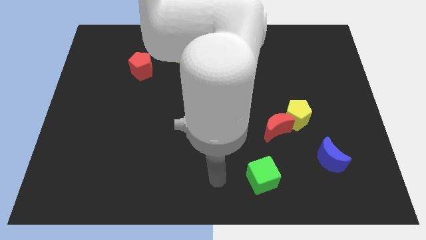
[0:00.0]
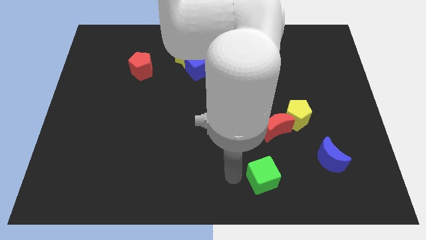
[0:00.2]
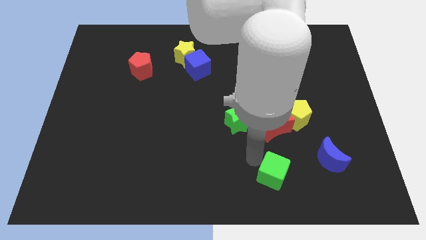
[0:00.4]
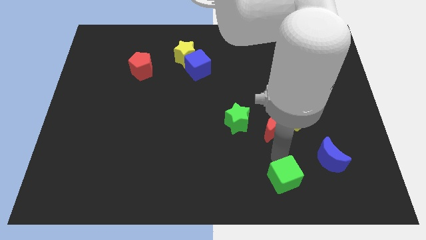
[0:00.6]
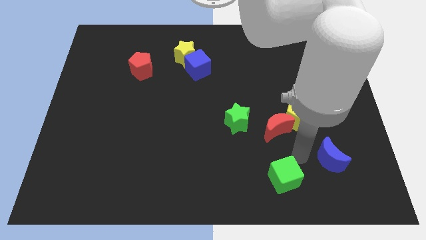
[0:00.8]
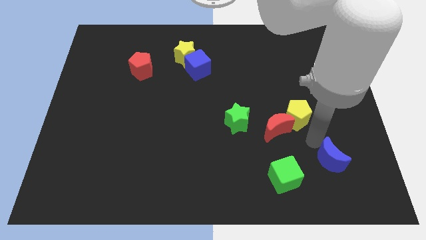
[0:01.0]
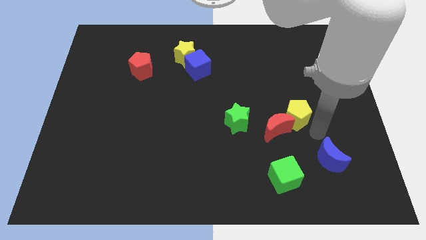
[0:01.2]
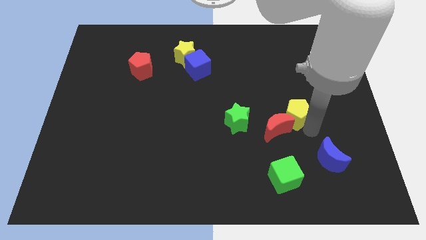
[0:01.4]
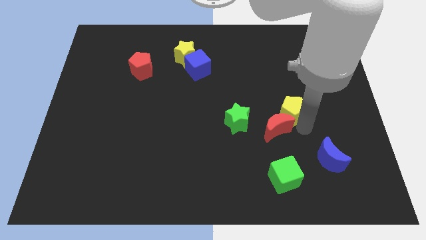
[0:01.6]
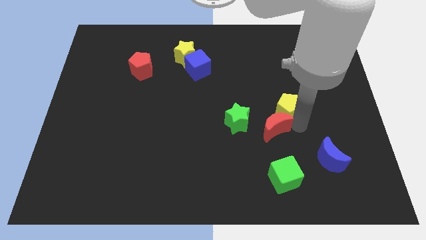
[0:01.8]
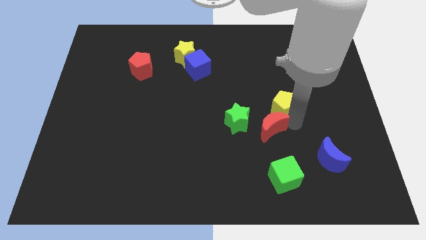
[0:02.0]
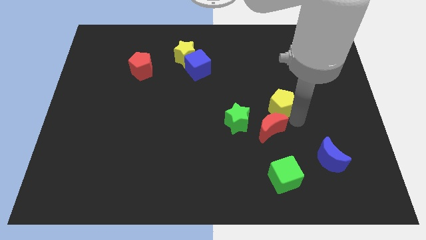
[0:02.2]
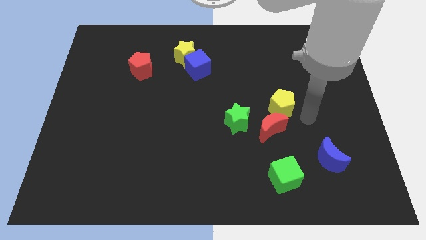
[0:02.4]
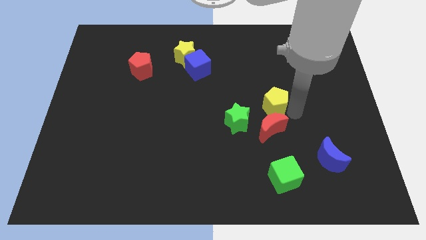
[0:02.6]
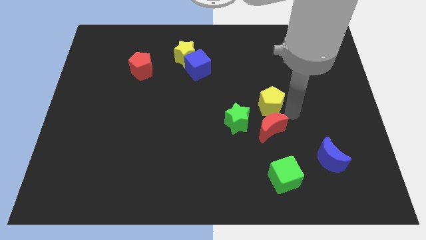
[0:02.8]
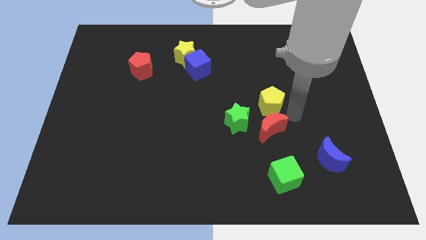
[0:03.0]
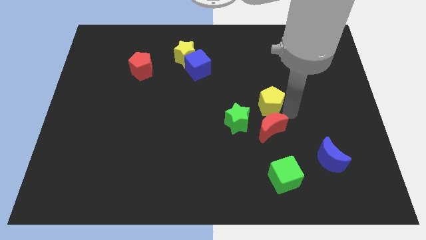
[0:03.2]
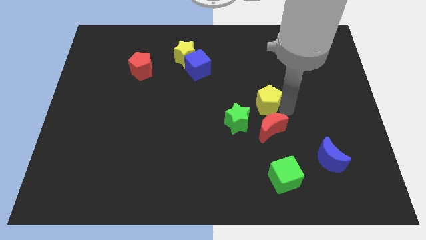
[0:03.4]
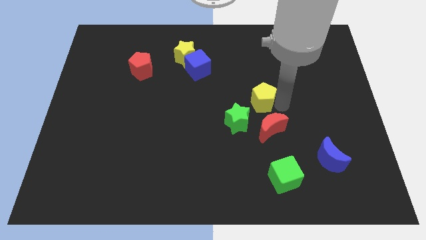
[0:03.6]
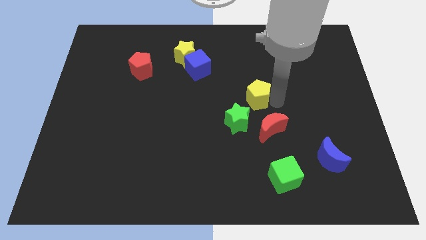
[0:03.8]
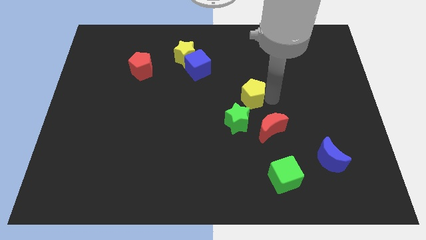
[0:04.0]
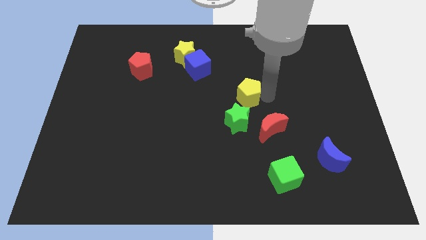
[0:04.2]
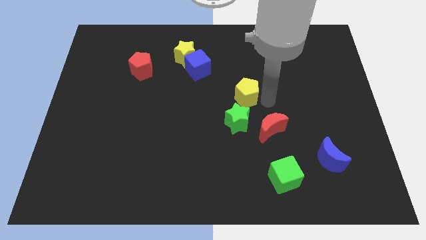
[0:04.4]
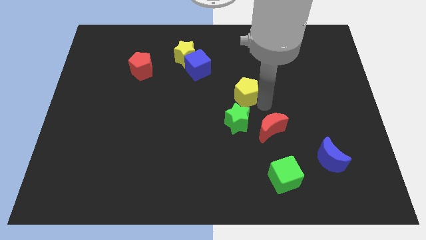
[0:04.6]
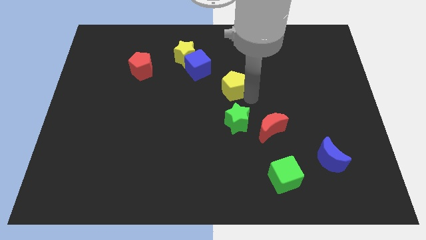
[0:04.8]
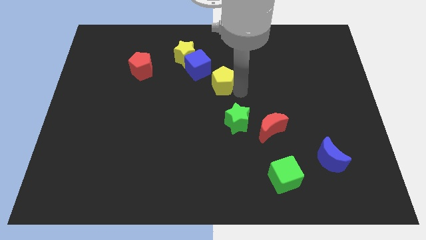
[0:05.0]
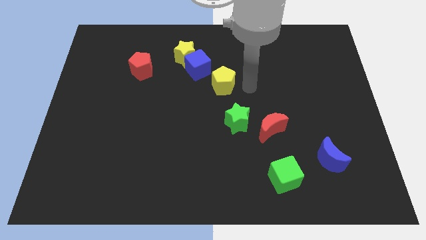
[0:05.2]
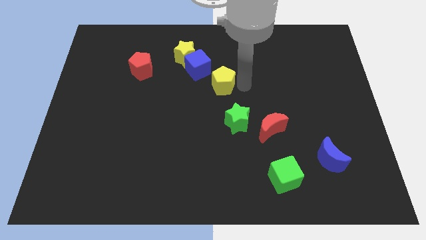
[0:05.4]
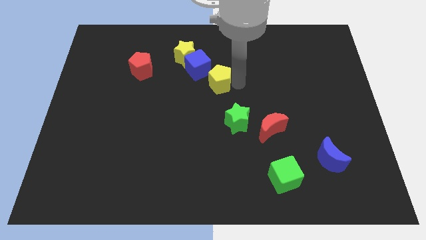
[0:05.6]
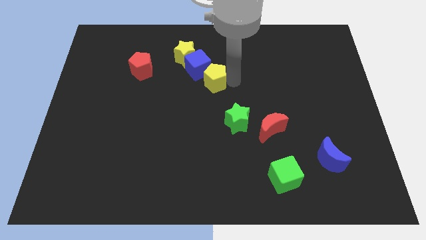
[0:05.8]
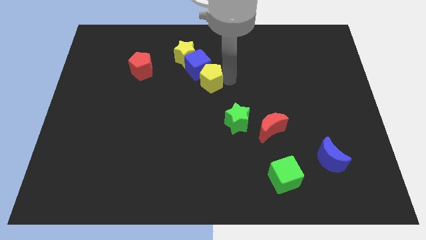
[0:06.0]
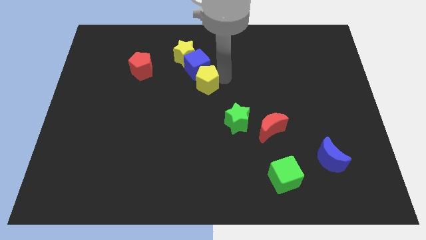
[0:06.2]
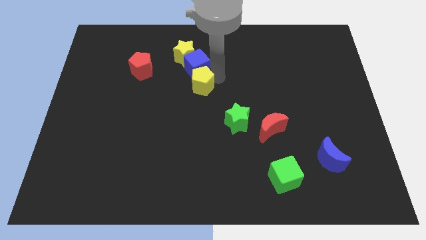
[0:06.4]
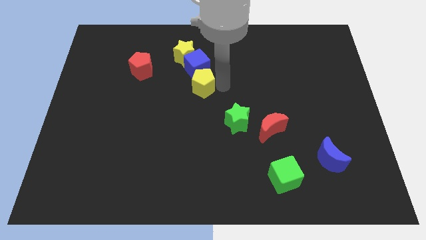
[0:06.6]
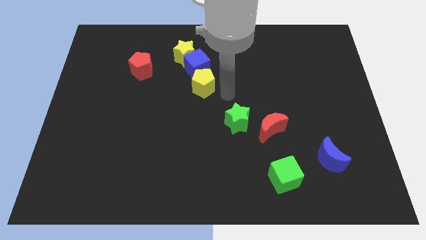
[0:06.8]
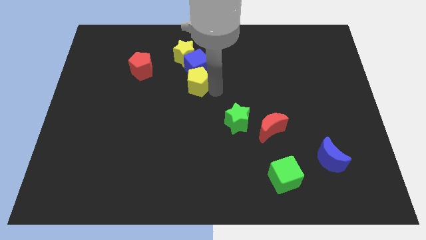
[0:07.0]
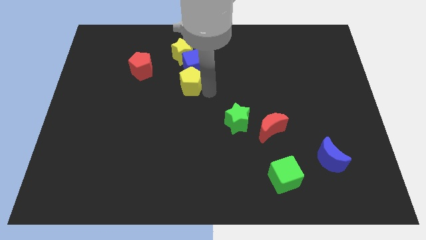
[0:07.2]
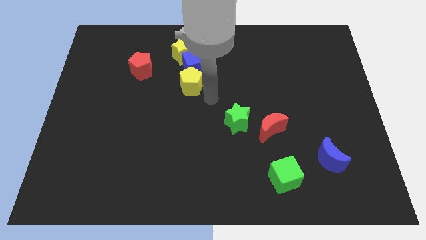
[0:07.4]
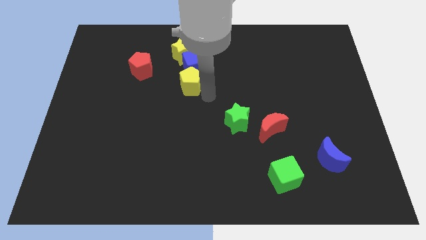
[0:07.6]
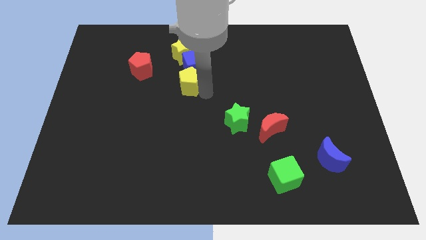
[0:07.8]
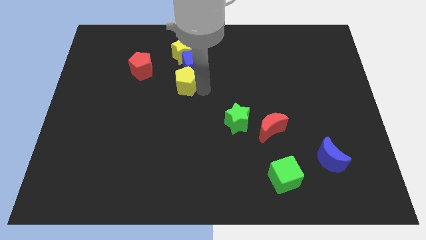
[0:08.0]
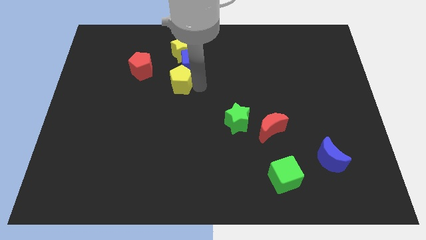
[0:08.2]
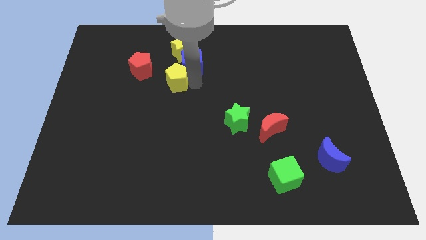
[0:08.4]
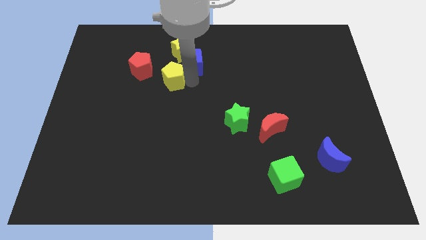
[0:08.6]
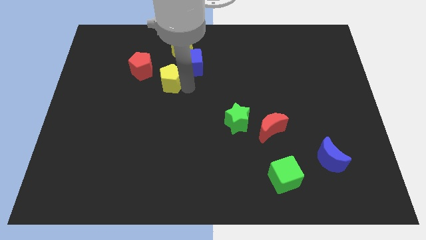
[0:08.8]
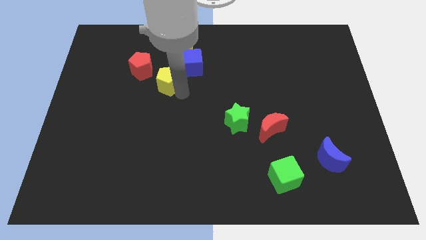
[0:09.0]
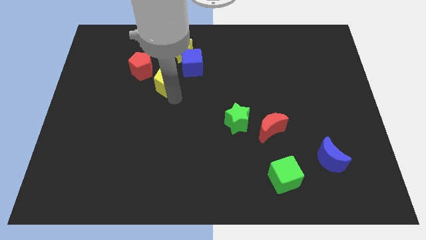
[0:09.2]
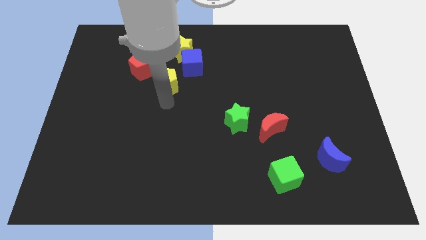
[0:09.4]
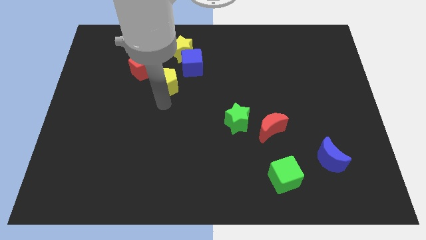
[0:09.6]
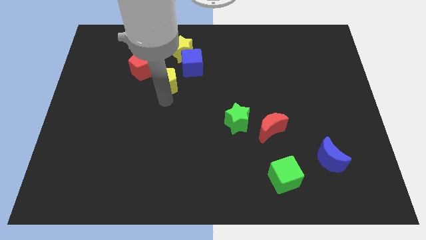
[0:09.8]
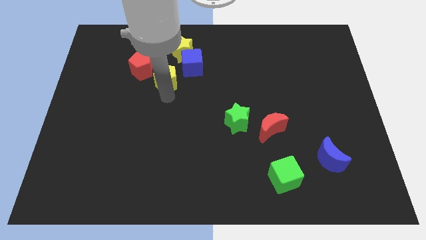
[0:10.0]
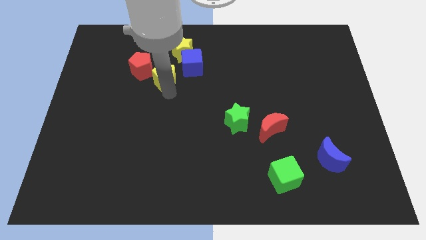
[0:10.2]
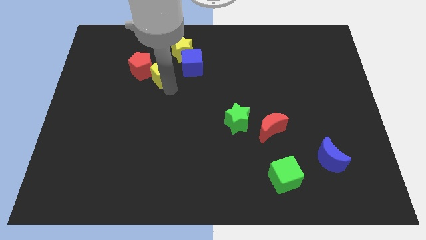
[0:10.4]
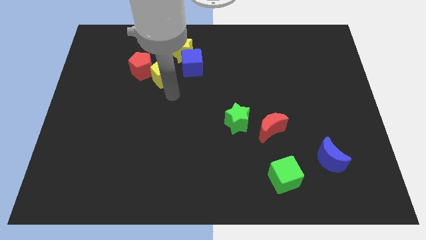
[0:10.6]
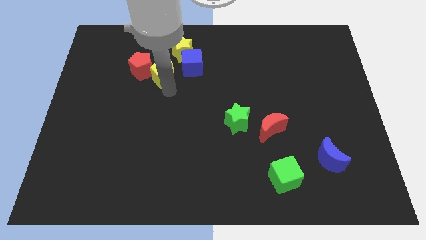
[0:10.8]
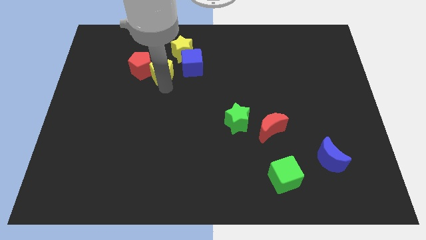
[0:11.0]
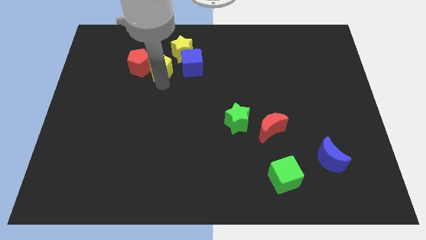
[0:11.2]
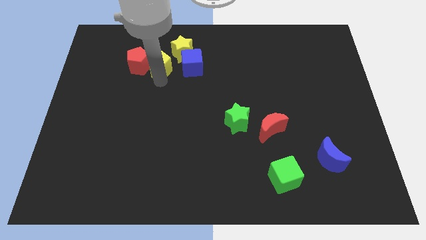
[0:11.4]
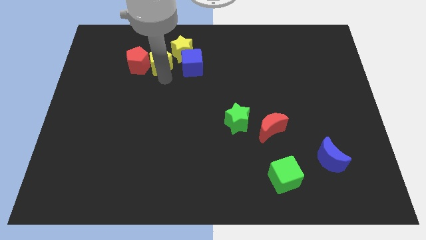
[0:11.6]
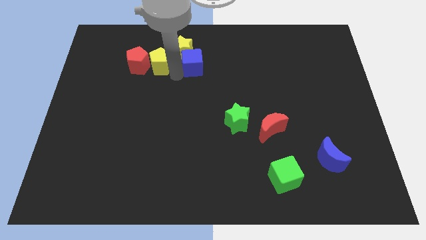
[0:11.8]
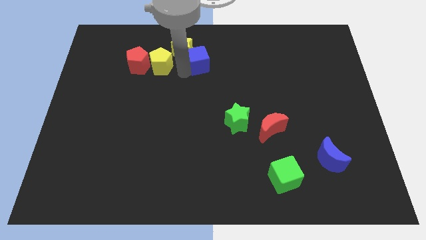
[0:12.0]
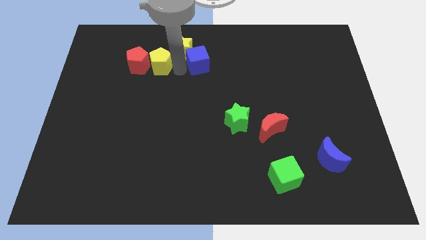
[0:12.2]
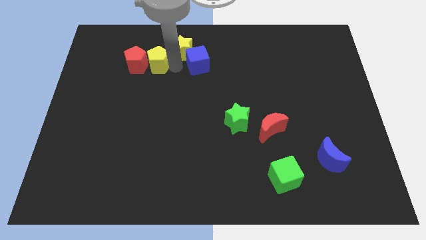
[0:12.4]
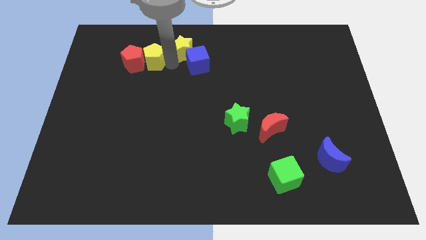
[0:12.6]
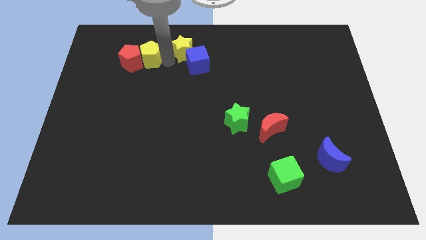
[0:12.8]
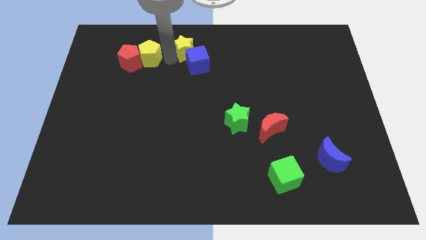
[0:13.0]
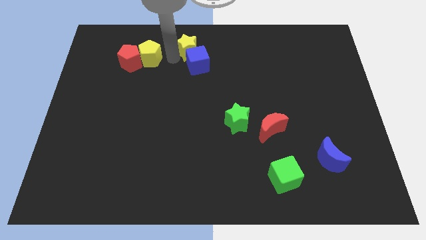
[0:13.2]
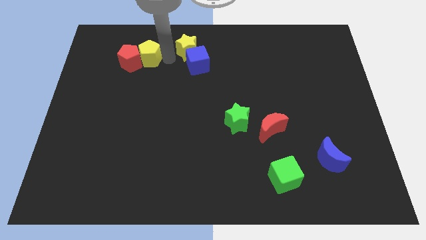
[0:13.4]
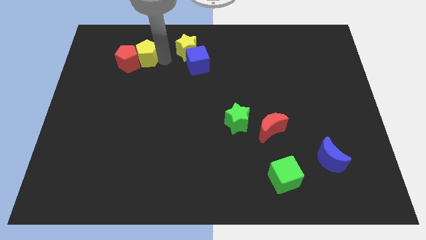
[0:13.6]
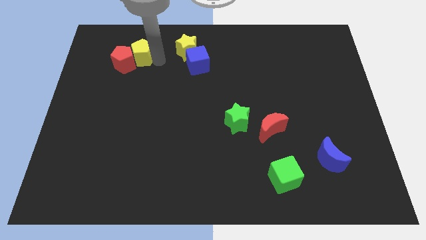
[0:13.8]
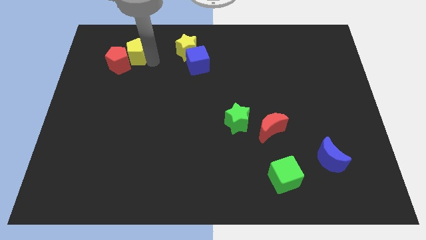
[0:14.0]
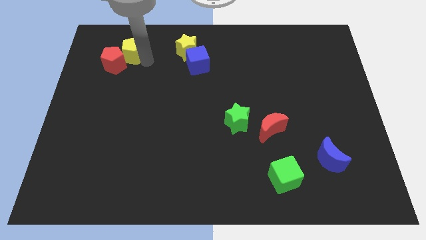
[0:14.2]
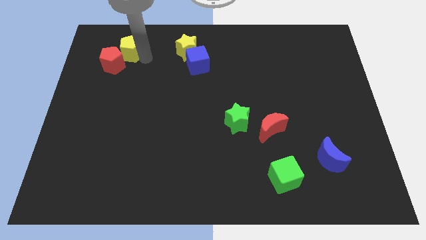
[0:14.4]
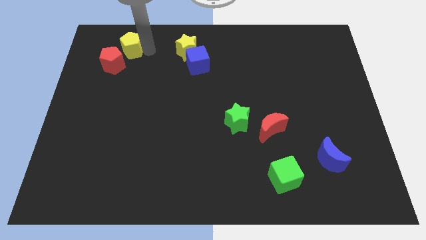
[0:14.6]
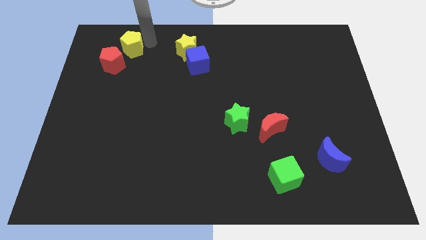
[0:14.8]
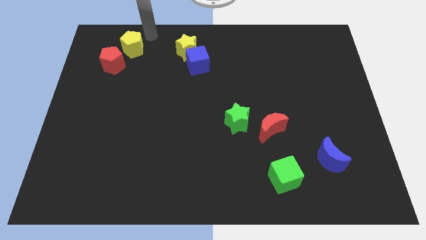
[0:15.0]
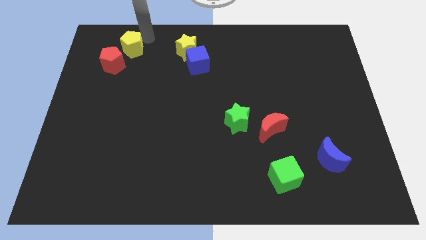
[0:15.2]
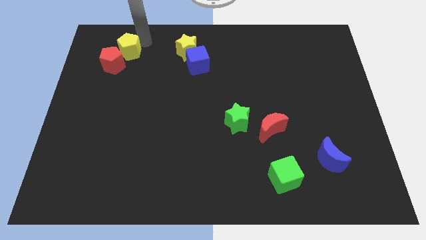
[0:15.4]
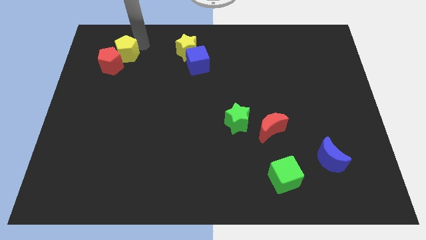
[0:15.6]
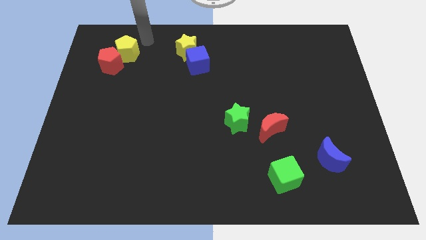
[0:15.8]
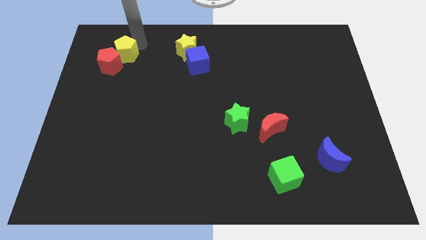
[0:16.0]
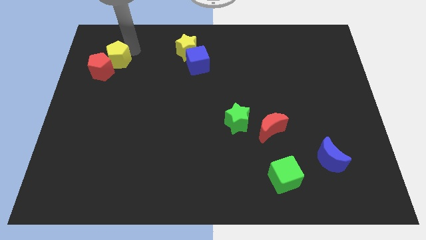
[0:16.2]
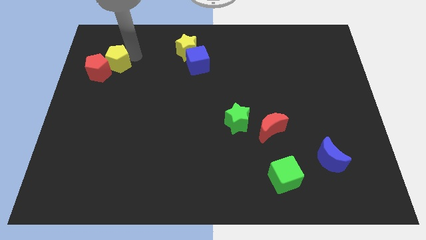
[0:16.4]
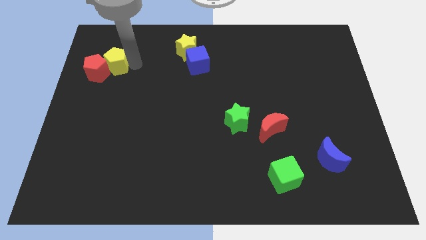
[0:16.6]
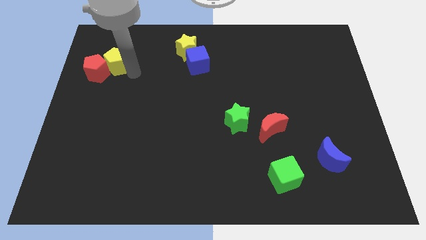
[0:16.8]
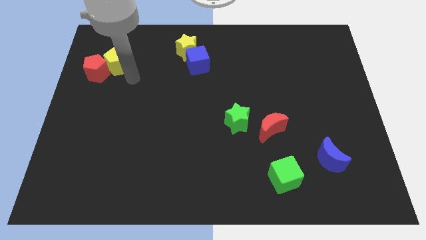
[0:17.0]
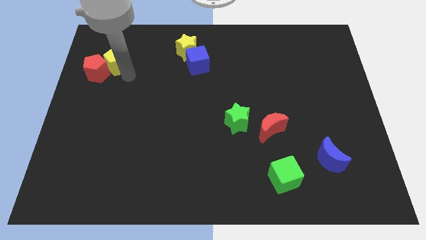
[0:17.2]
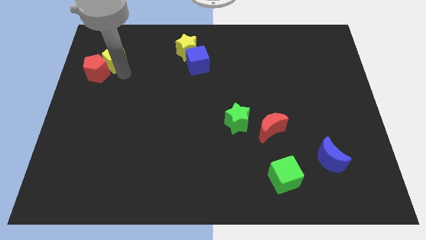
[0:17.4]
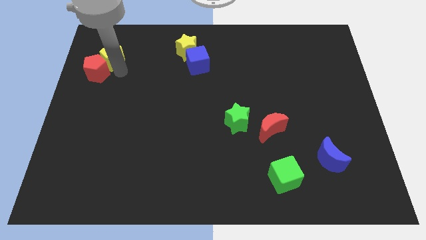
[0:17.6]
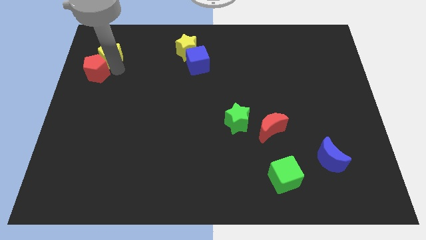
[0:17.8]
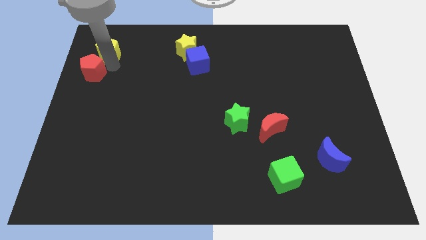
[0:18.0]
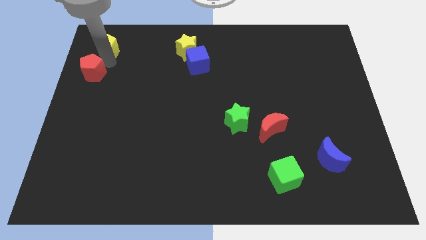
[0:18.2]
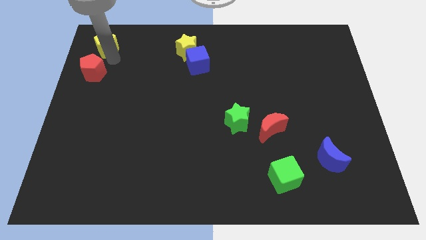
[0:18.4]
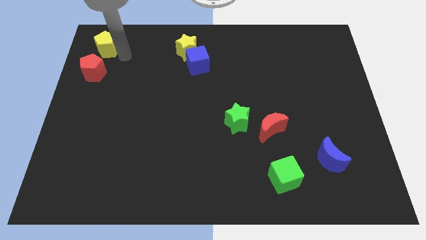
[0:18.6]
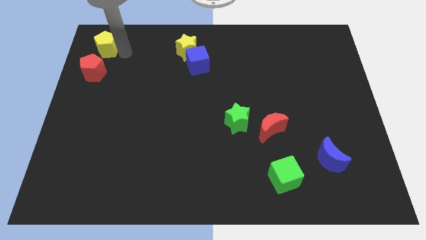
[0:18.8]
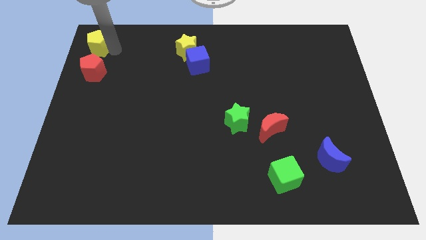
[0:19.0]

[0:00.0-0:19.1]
slide the yellow pentagon to the top left of the board
